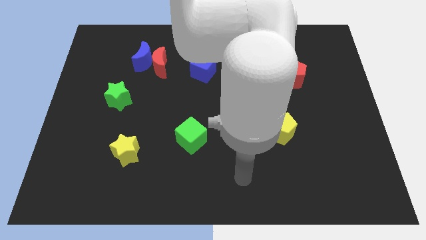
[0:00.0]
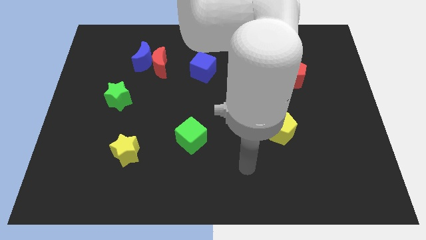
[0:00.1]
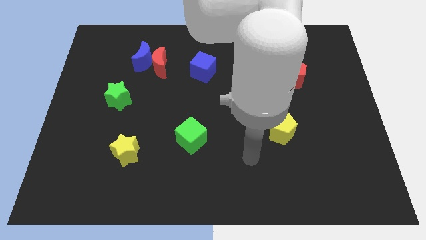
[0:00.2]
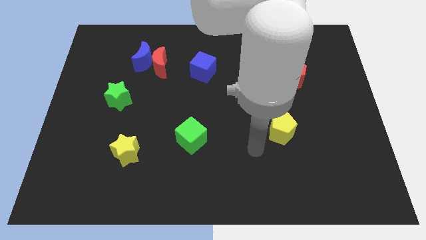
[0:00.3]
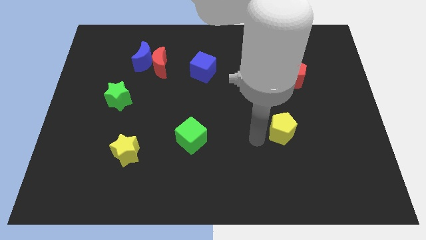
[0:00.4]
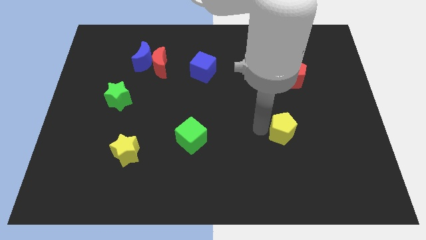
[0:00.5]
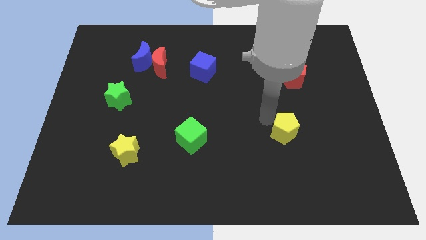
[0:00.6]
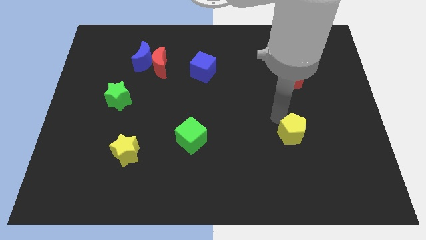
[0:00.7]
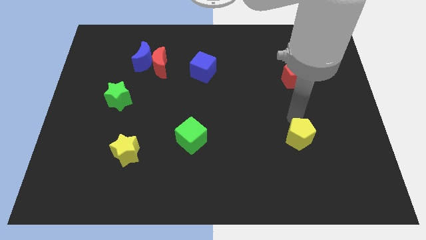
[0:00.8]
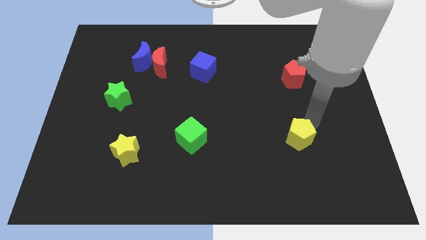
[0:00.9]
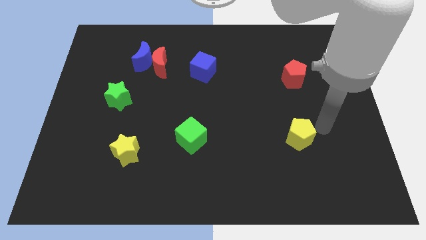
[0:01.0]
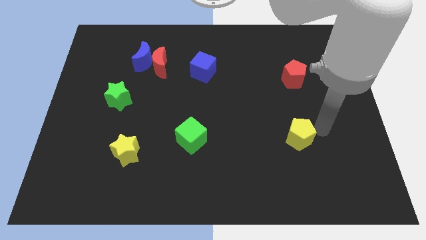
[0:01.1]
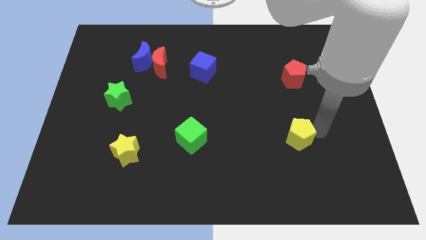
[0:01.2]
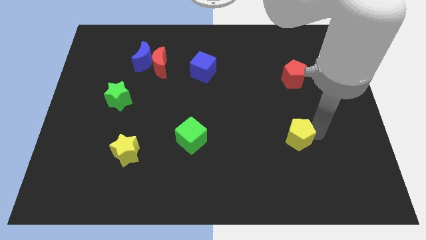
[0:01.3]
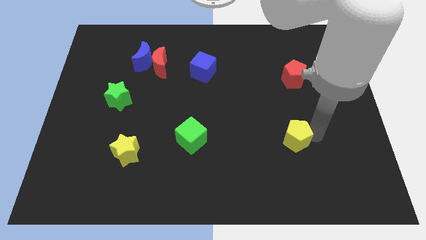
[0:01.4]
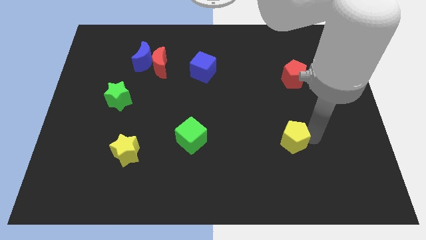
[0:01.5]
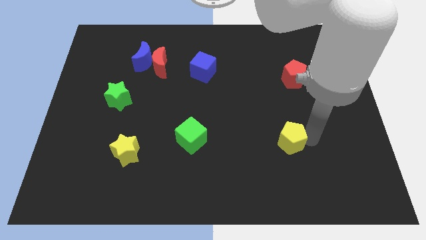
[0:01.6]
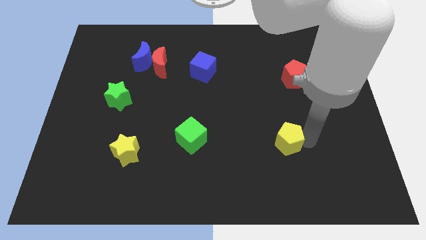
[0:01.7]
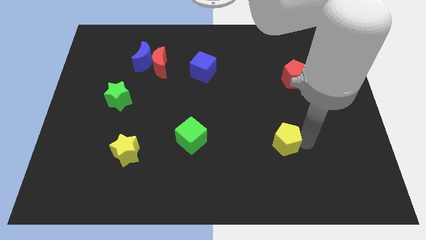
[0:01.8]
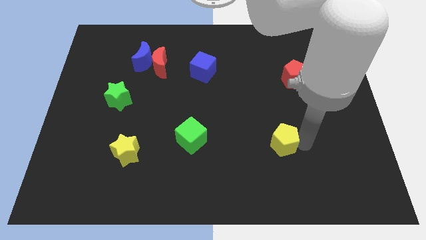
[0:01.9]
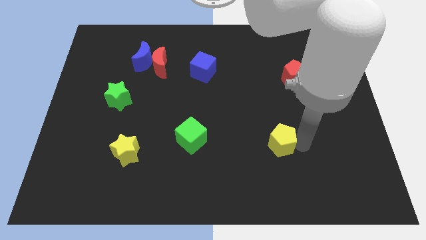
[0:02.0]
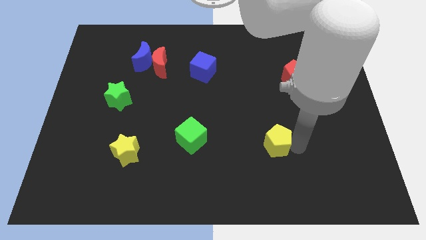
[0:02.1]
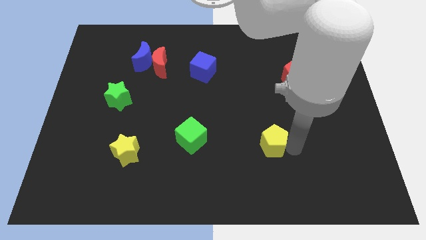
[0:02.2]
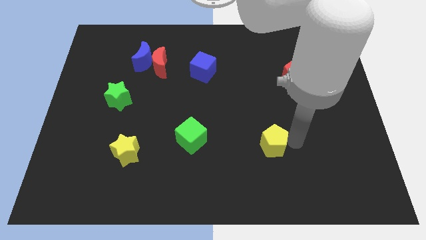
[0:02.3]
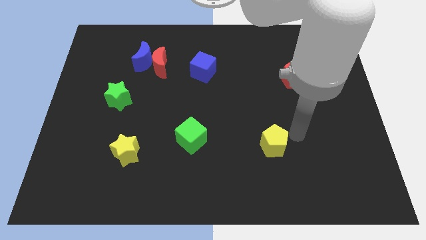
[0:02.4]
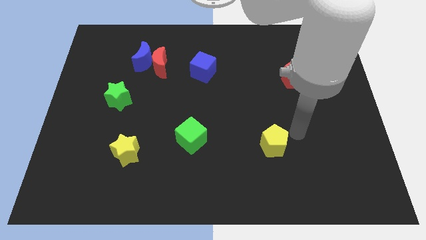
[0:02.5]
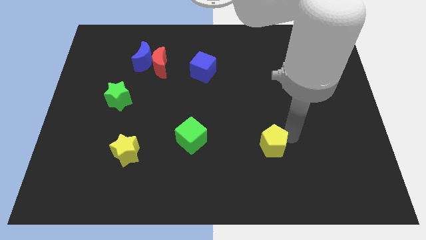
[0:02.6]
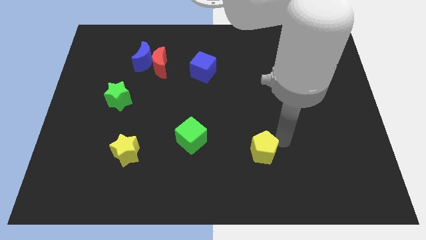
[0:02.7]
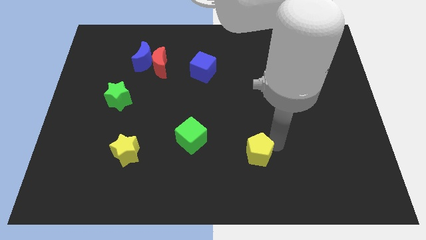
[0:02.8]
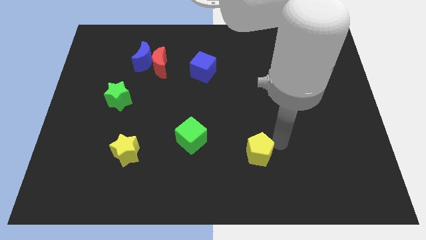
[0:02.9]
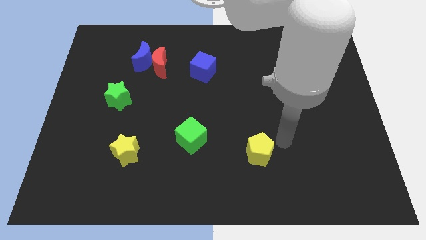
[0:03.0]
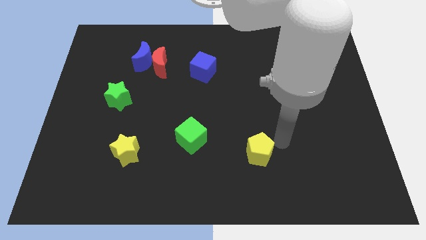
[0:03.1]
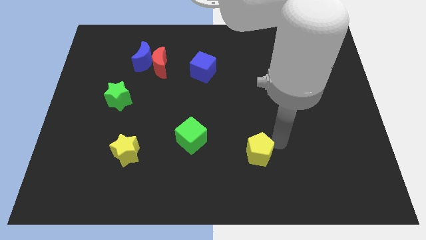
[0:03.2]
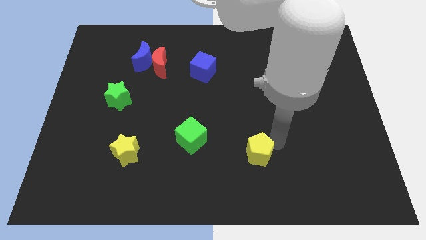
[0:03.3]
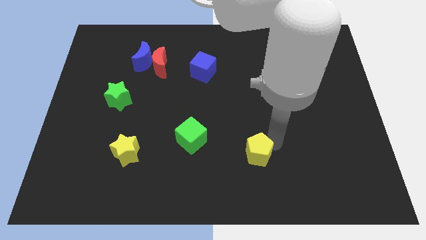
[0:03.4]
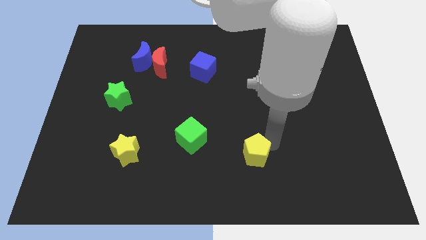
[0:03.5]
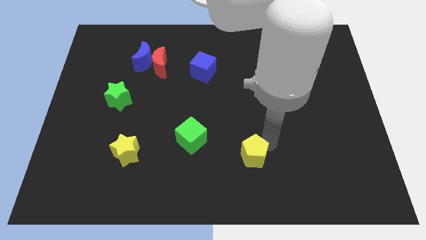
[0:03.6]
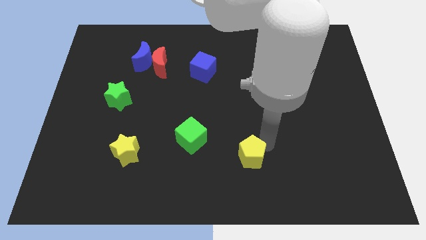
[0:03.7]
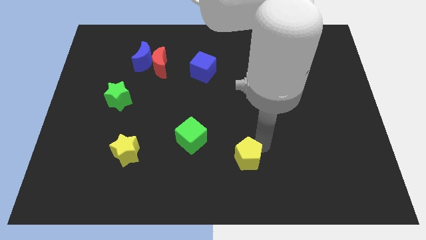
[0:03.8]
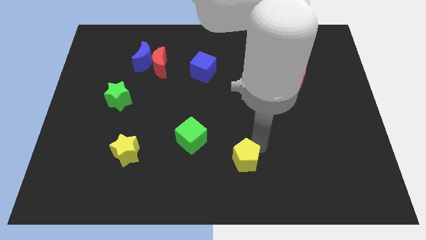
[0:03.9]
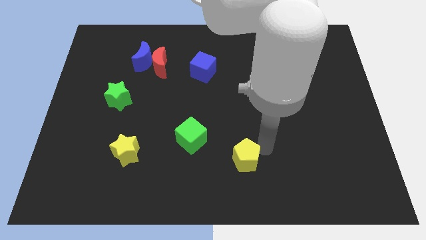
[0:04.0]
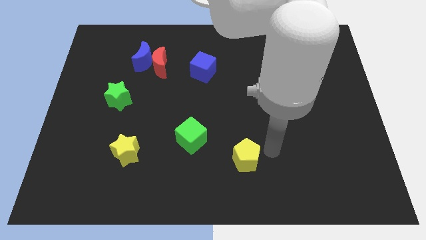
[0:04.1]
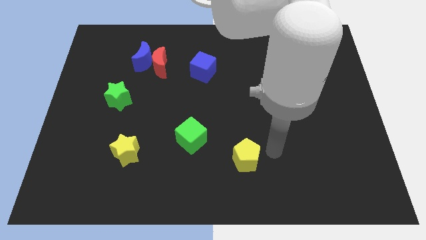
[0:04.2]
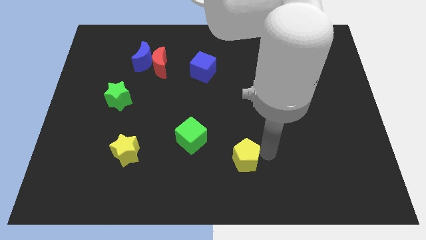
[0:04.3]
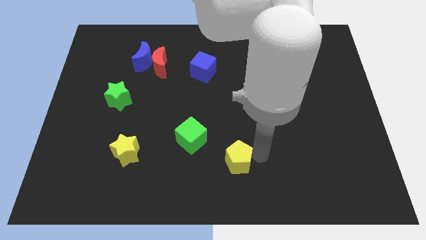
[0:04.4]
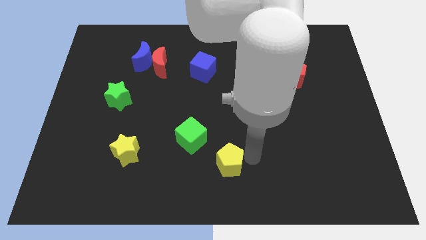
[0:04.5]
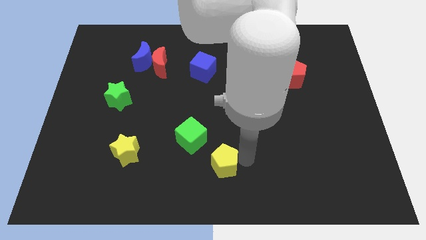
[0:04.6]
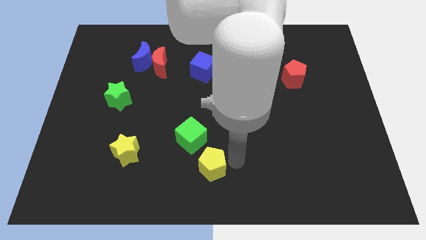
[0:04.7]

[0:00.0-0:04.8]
slide the yellow pentagon to the bottom side of the green cube

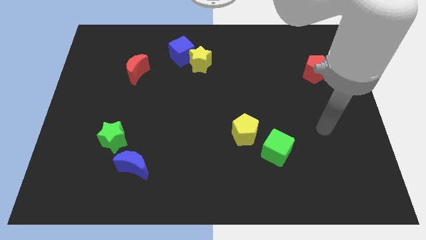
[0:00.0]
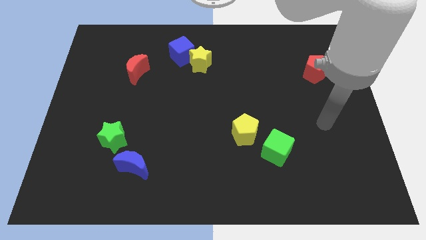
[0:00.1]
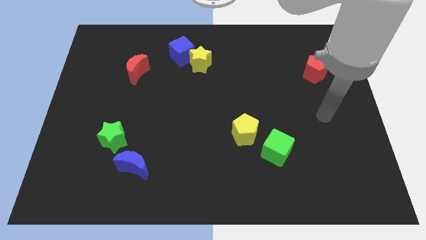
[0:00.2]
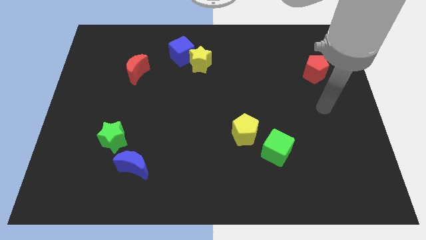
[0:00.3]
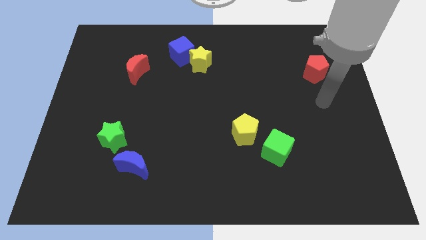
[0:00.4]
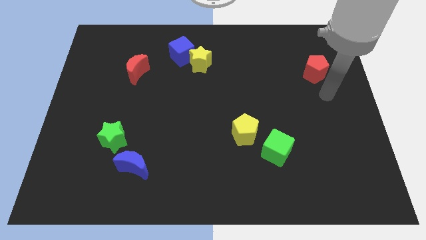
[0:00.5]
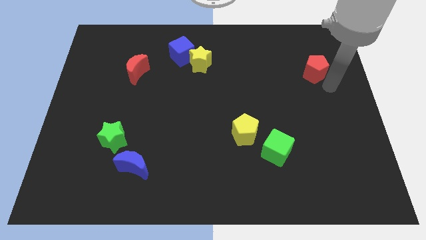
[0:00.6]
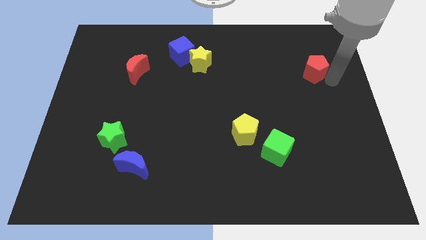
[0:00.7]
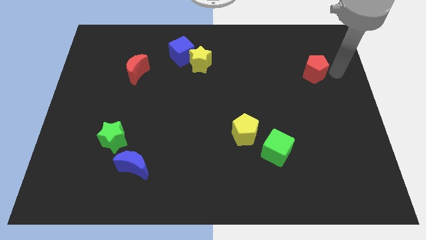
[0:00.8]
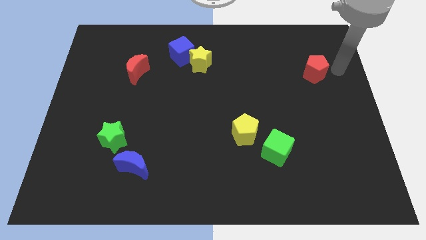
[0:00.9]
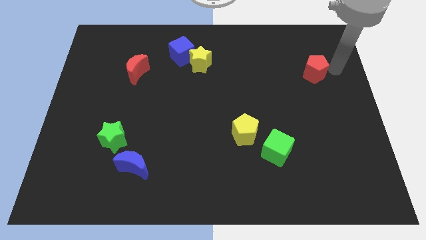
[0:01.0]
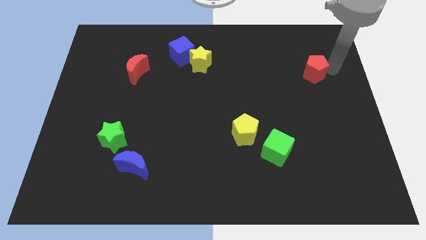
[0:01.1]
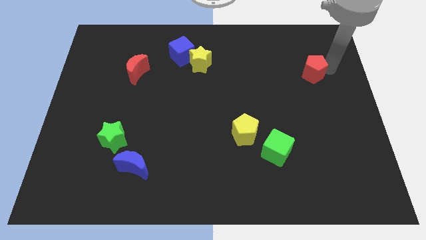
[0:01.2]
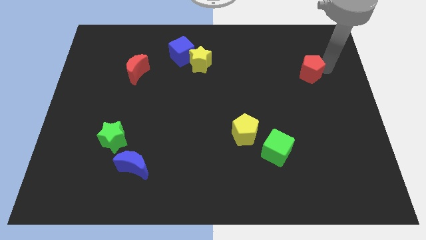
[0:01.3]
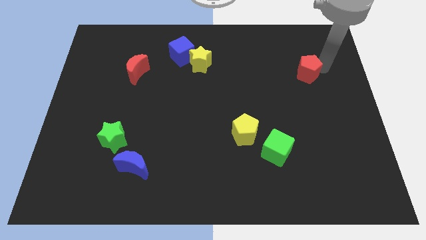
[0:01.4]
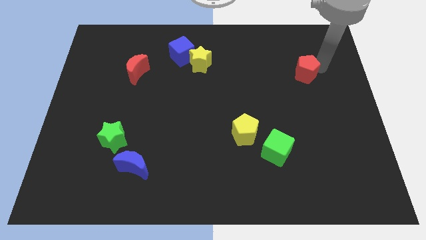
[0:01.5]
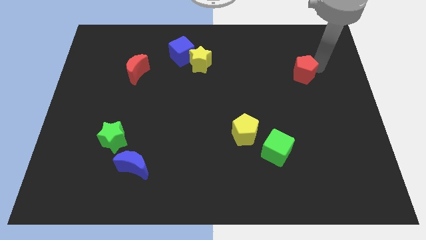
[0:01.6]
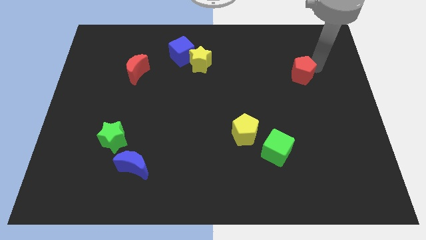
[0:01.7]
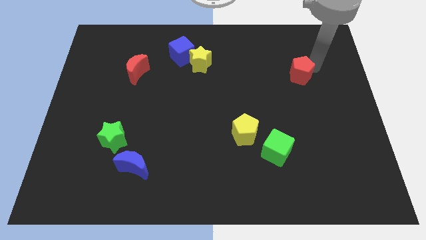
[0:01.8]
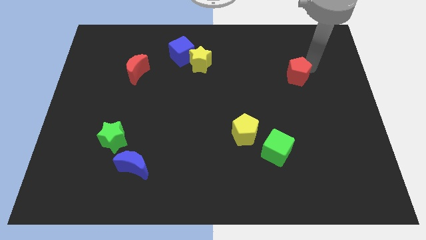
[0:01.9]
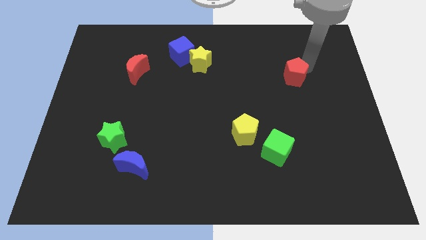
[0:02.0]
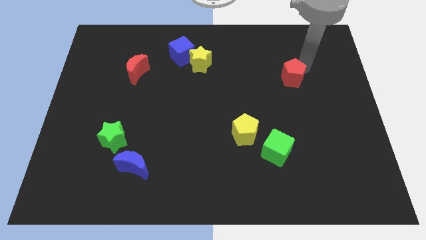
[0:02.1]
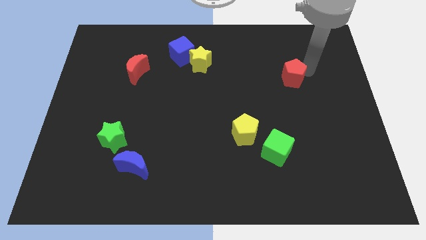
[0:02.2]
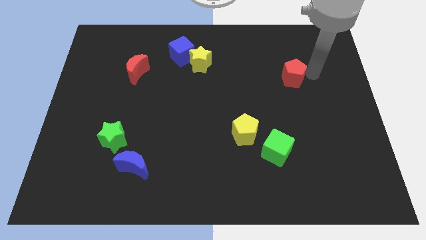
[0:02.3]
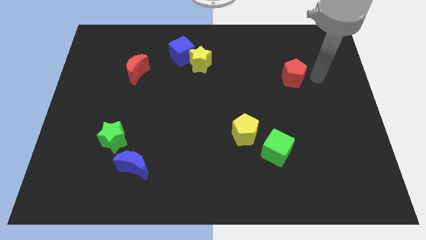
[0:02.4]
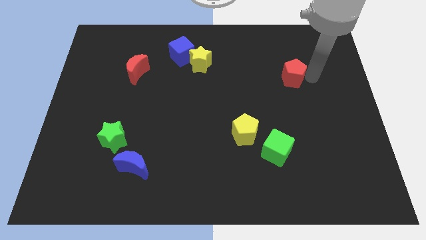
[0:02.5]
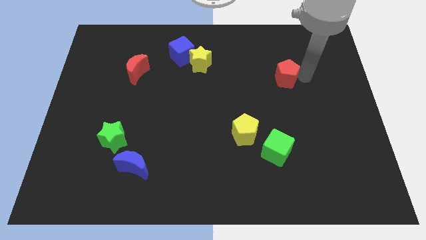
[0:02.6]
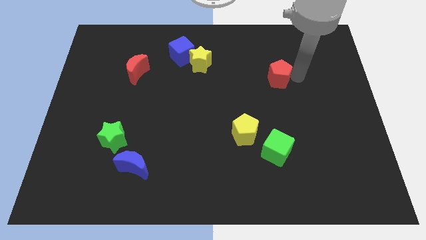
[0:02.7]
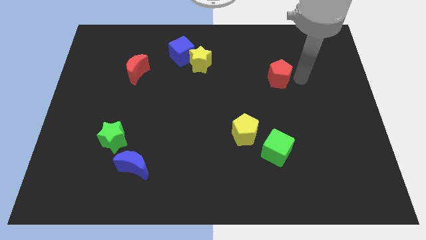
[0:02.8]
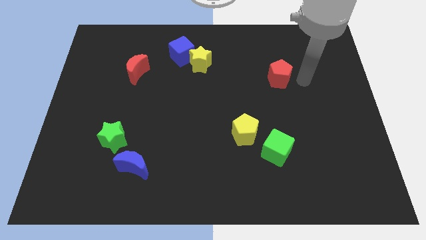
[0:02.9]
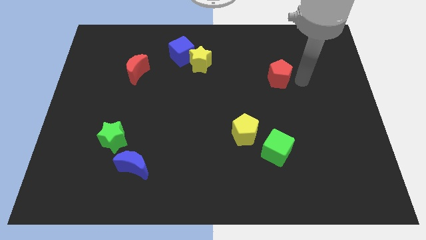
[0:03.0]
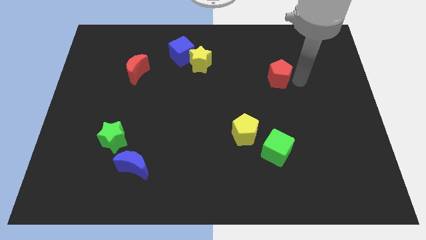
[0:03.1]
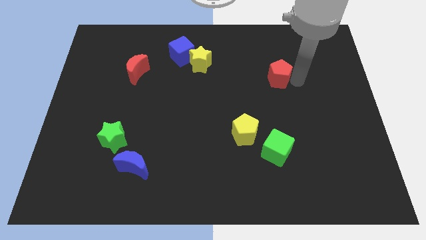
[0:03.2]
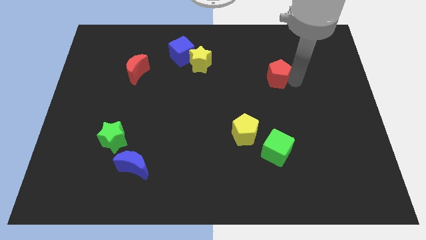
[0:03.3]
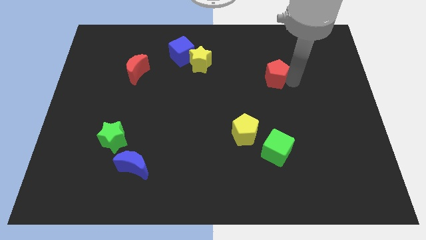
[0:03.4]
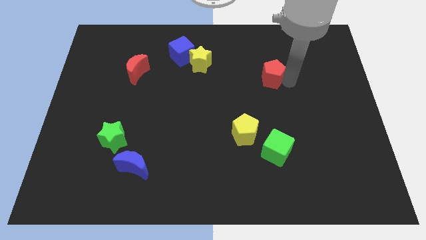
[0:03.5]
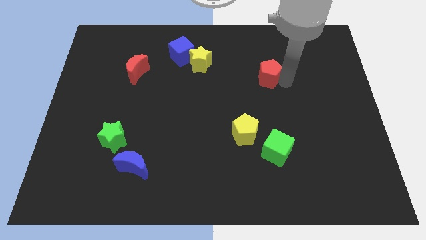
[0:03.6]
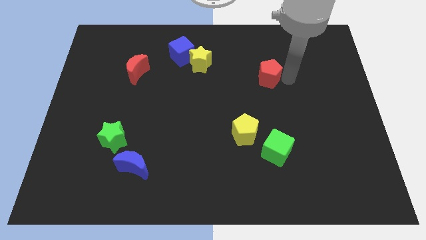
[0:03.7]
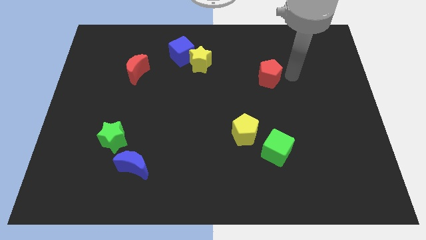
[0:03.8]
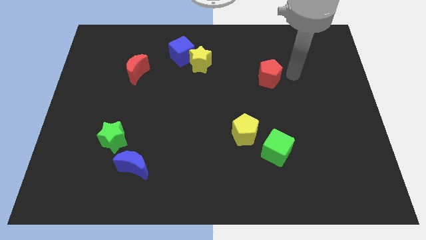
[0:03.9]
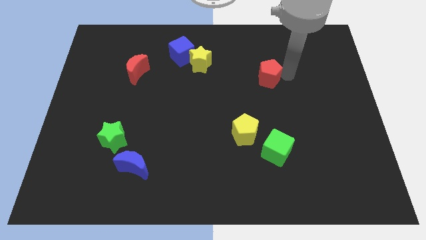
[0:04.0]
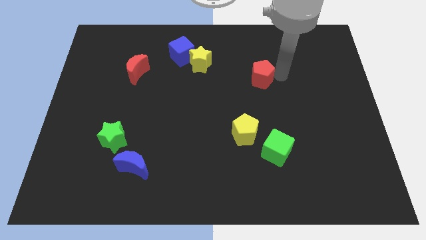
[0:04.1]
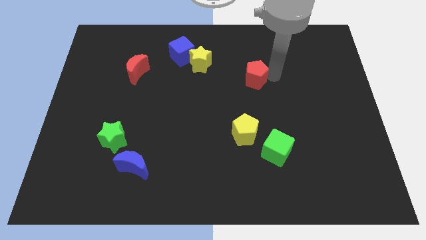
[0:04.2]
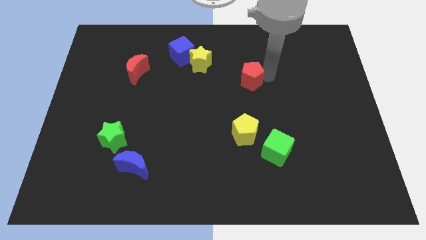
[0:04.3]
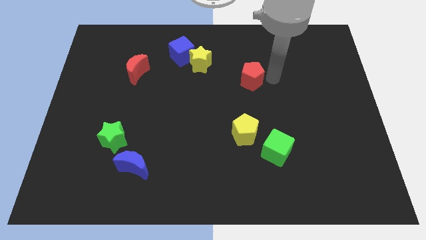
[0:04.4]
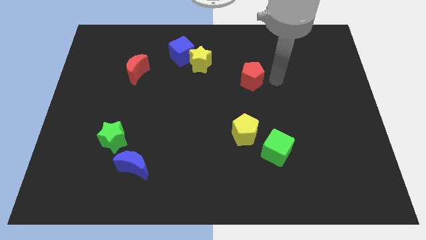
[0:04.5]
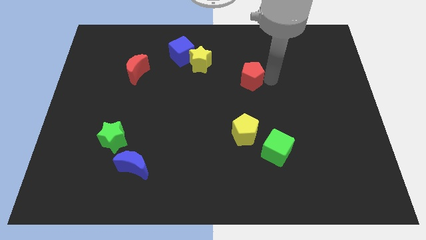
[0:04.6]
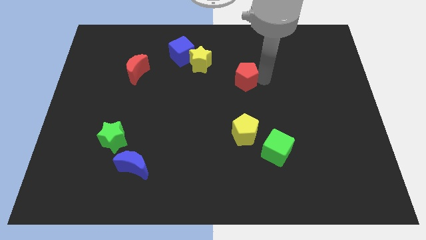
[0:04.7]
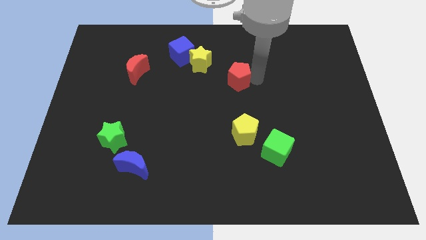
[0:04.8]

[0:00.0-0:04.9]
put the red pentagon to the bottom right side of the yellow star
